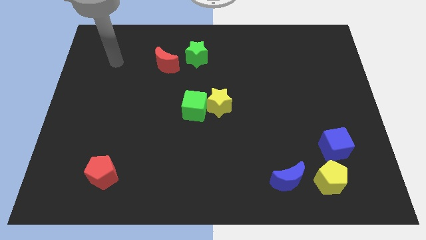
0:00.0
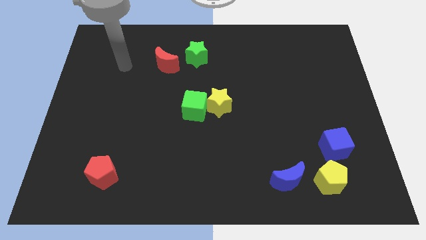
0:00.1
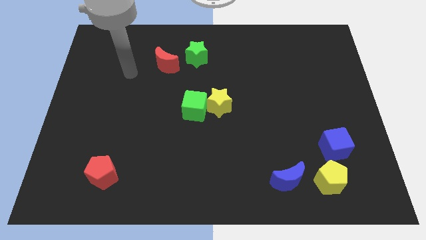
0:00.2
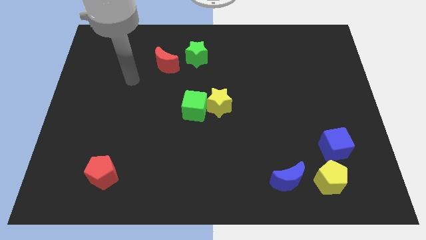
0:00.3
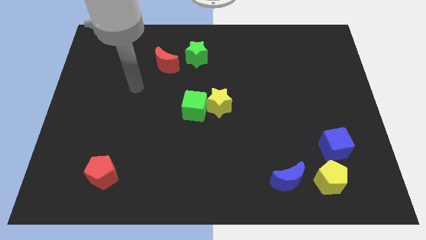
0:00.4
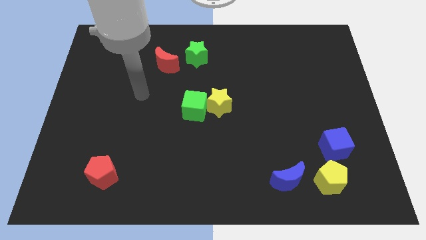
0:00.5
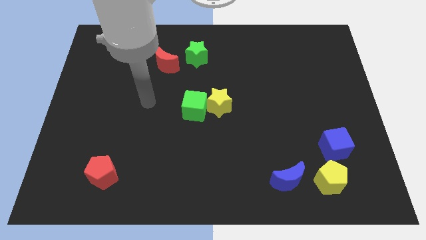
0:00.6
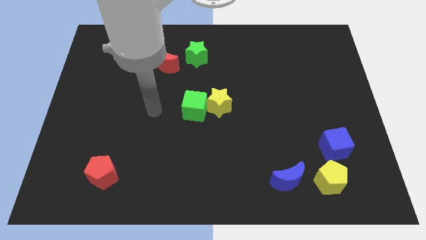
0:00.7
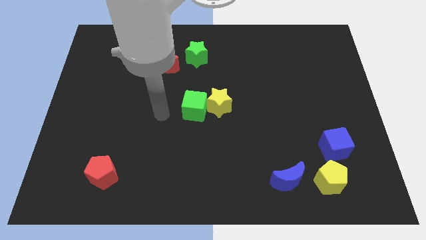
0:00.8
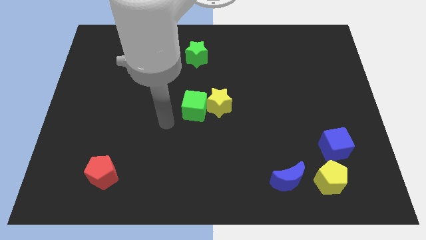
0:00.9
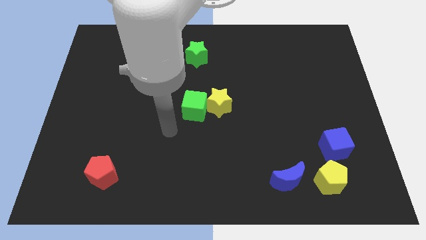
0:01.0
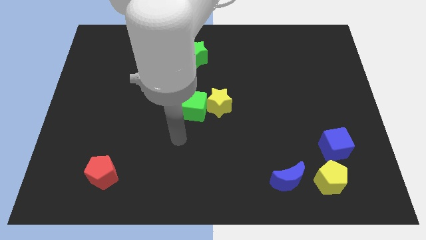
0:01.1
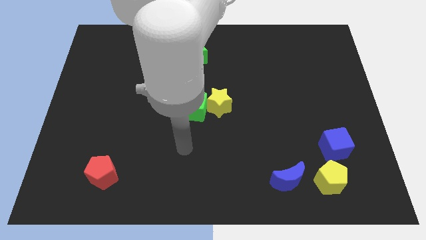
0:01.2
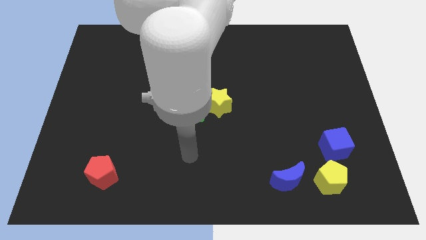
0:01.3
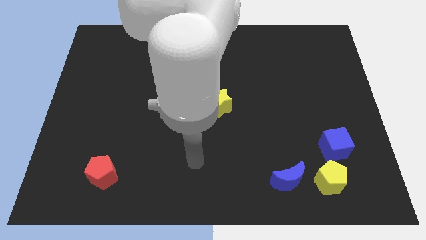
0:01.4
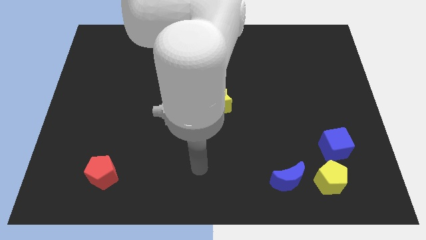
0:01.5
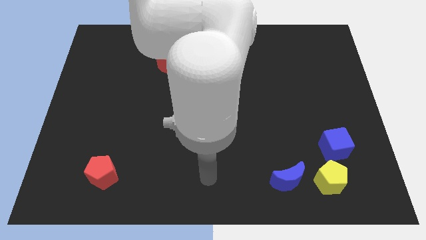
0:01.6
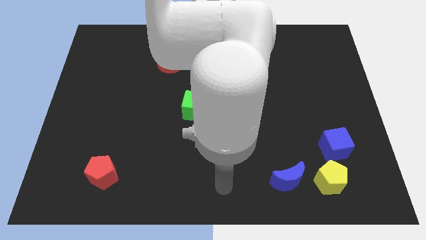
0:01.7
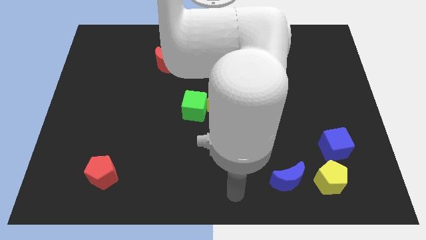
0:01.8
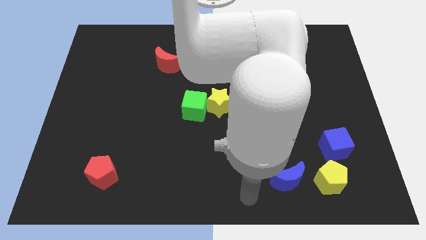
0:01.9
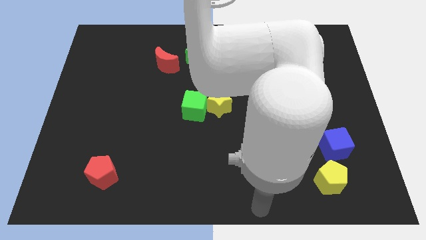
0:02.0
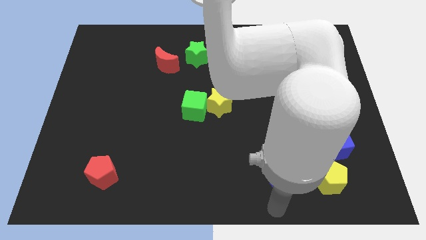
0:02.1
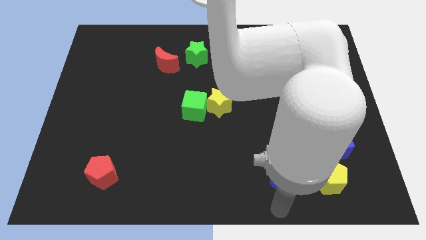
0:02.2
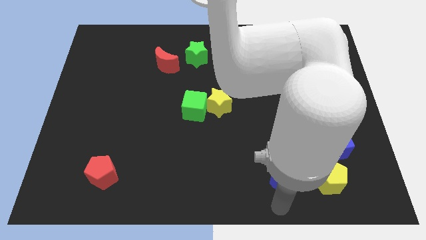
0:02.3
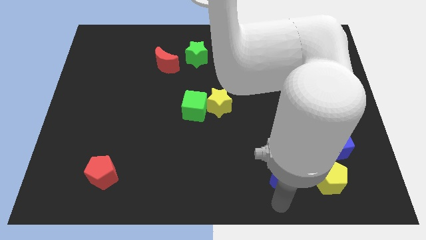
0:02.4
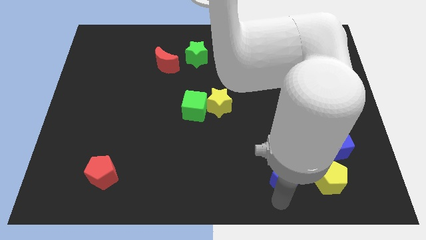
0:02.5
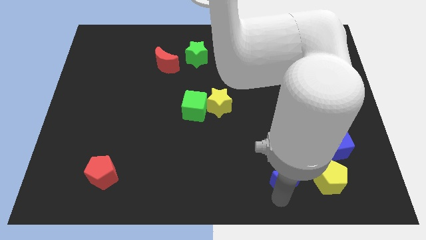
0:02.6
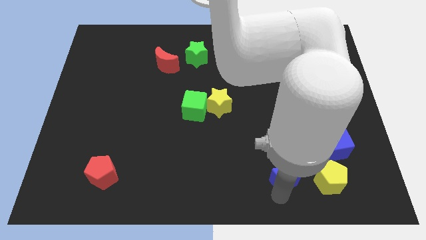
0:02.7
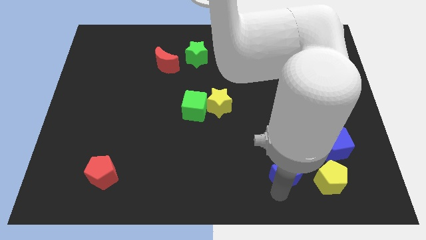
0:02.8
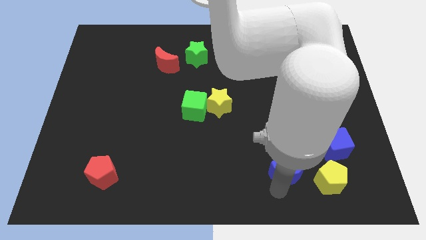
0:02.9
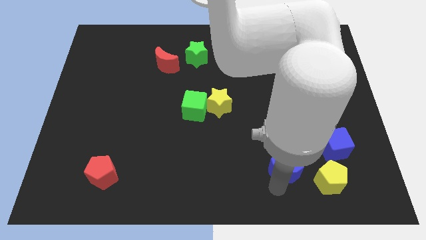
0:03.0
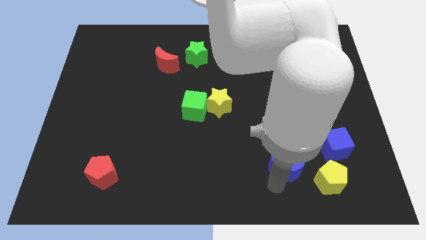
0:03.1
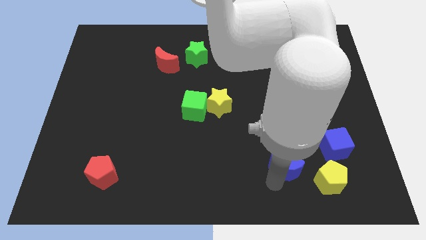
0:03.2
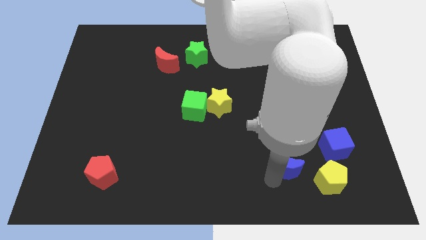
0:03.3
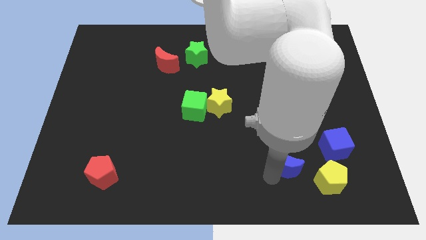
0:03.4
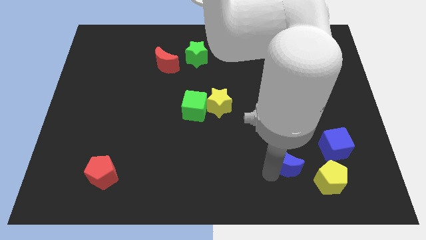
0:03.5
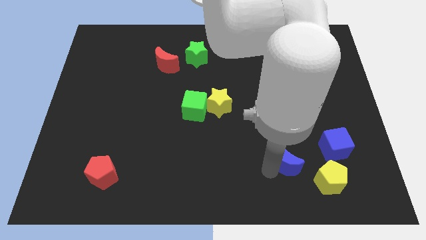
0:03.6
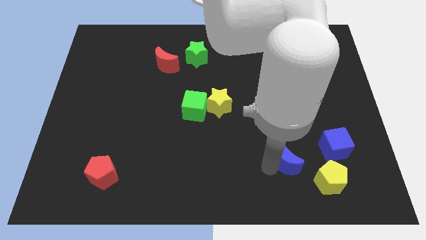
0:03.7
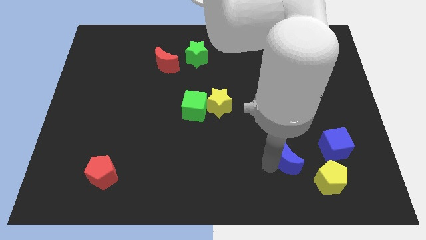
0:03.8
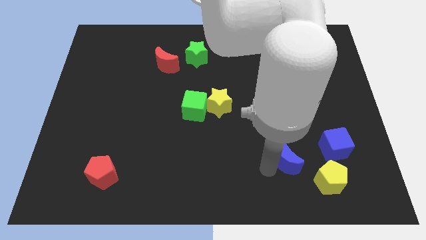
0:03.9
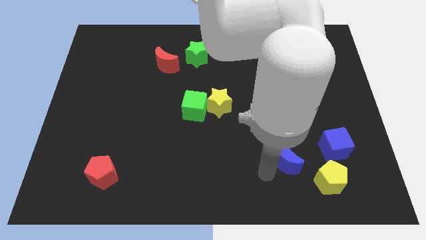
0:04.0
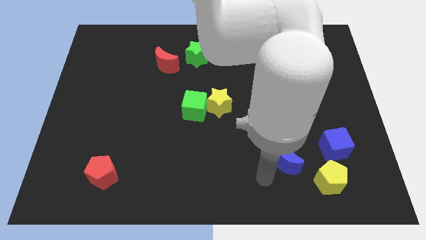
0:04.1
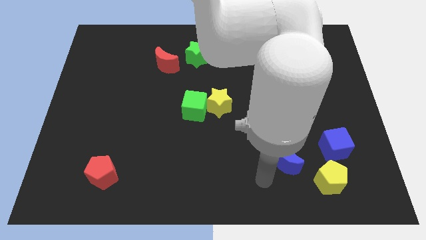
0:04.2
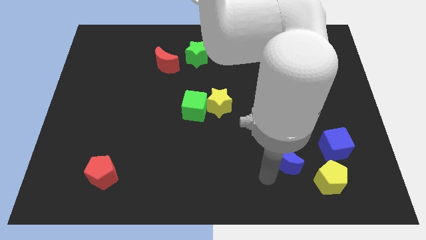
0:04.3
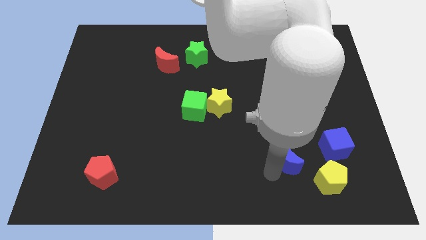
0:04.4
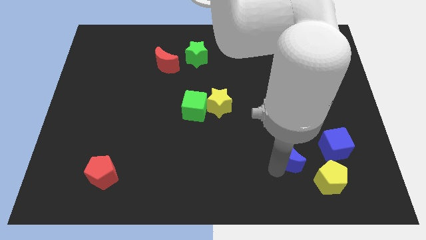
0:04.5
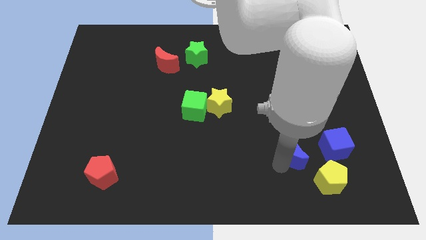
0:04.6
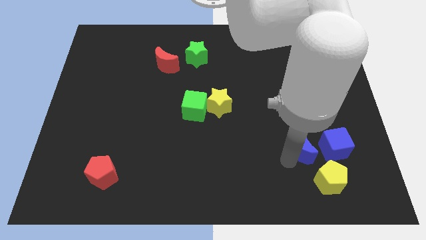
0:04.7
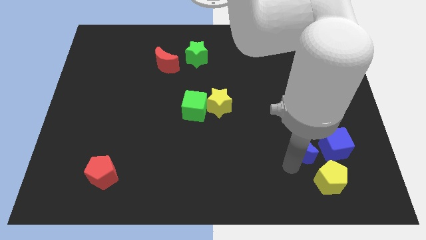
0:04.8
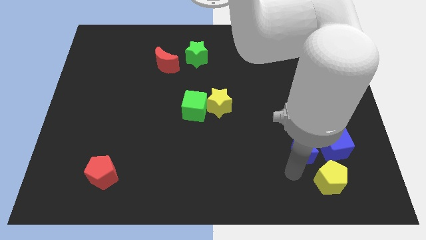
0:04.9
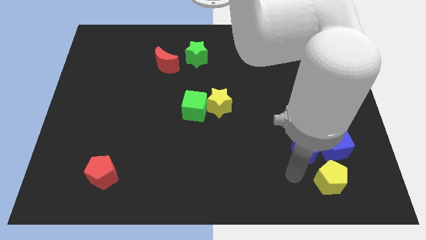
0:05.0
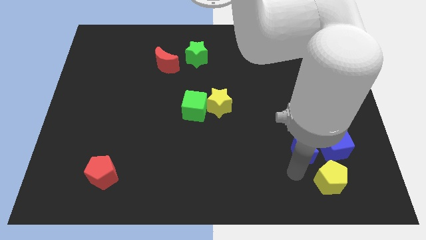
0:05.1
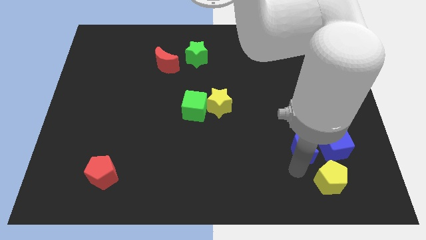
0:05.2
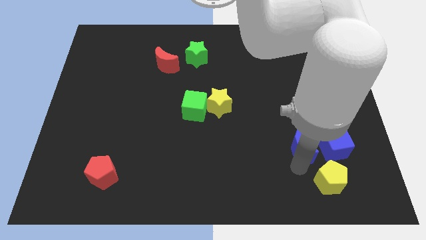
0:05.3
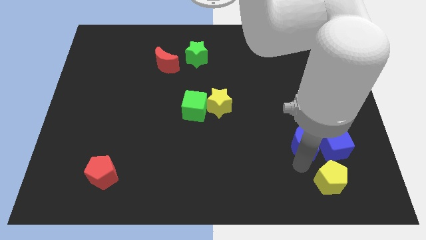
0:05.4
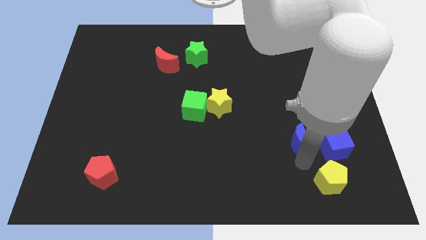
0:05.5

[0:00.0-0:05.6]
put the blue moon to the top left side of the blue cube

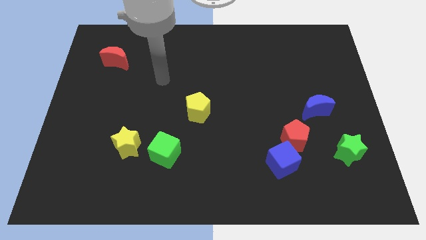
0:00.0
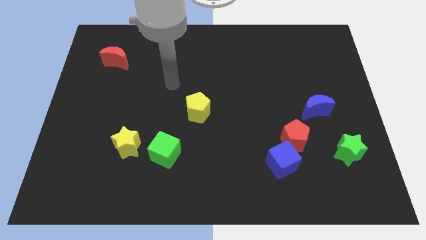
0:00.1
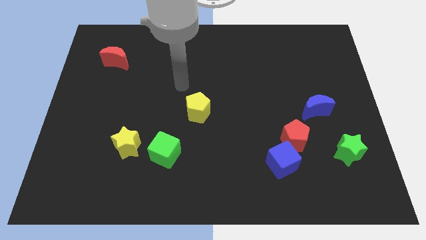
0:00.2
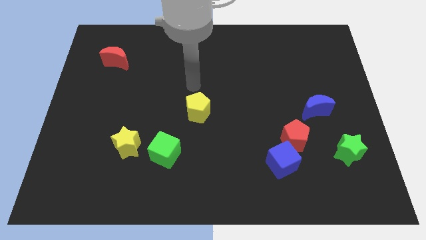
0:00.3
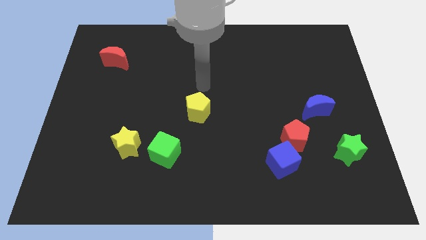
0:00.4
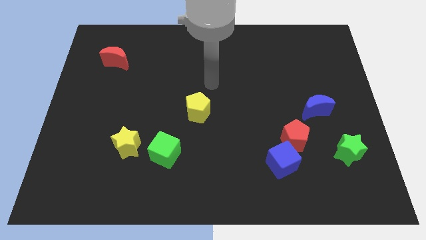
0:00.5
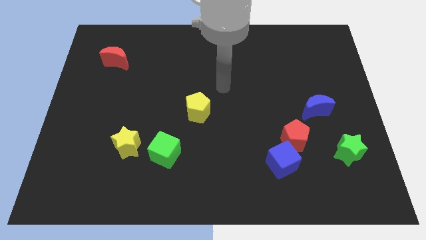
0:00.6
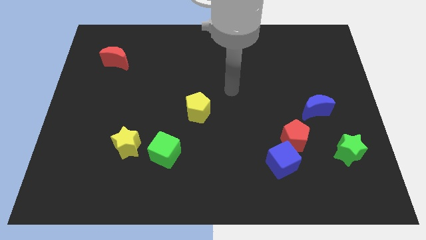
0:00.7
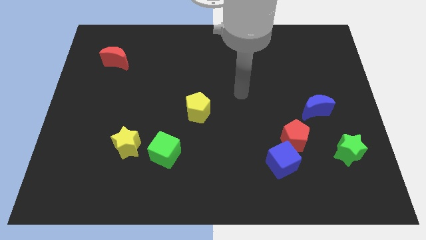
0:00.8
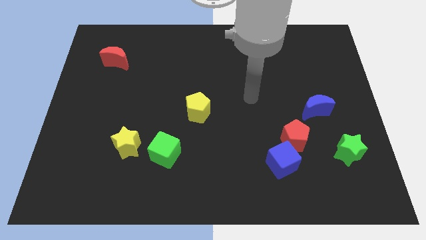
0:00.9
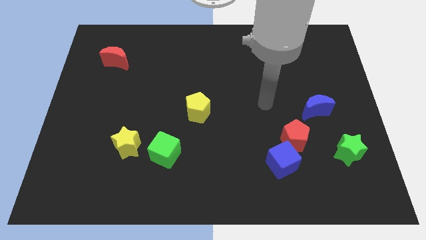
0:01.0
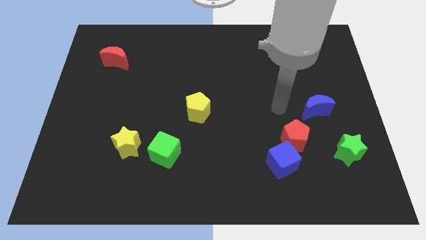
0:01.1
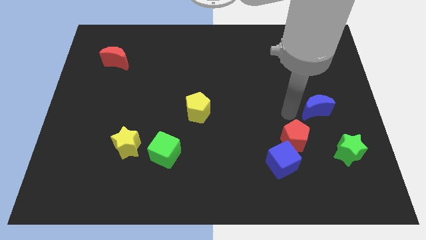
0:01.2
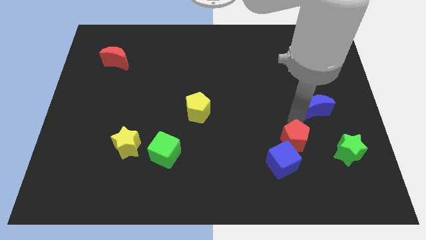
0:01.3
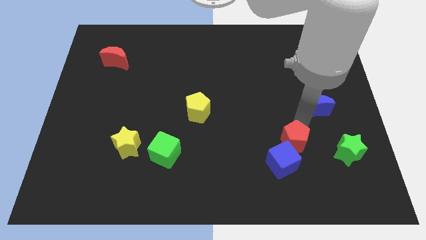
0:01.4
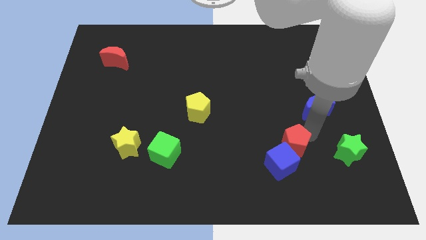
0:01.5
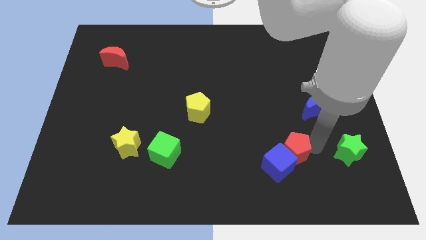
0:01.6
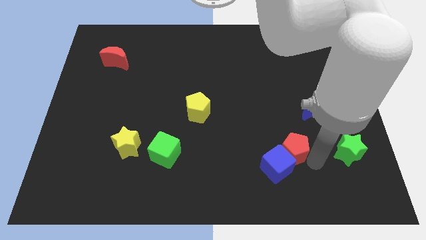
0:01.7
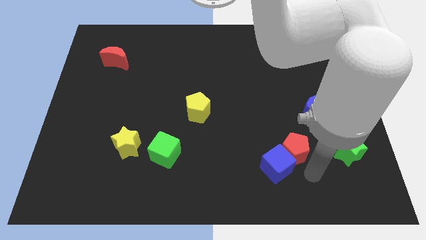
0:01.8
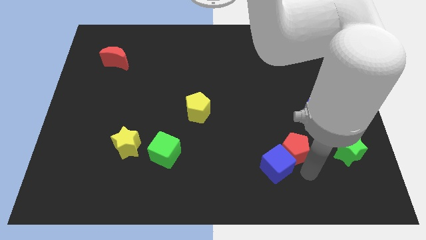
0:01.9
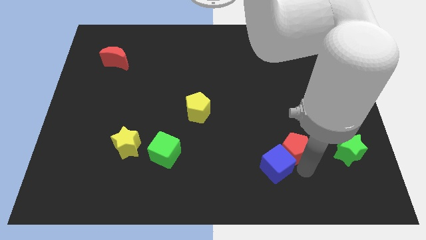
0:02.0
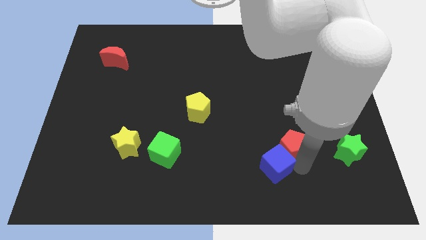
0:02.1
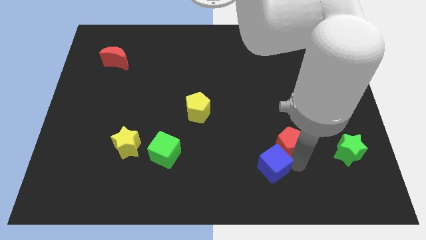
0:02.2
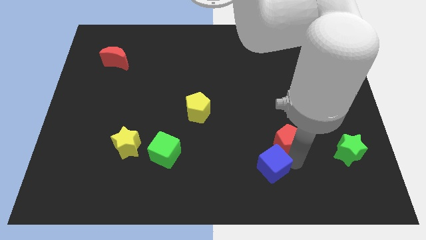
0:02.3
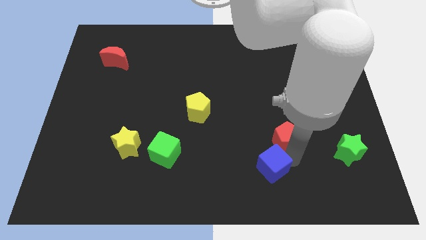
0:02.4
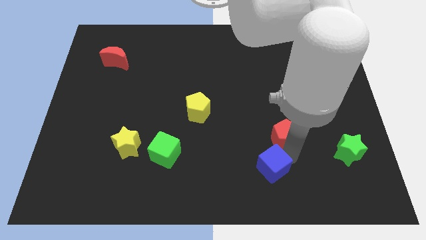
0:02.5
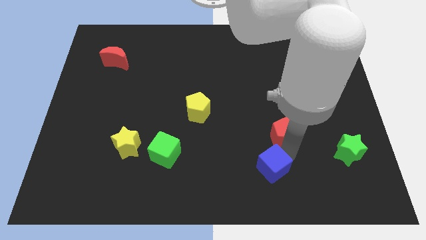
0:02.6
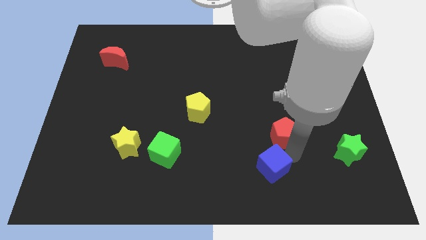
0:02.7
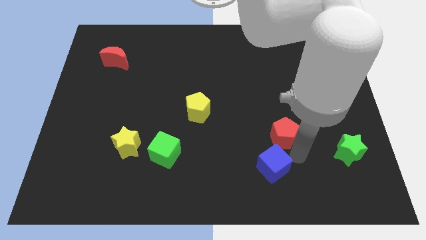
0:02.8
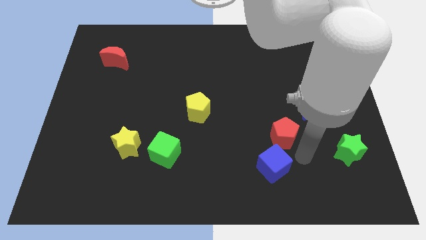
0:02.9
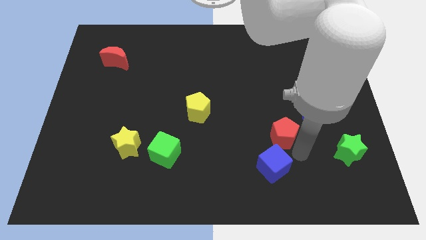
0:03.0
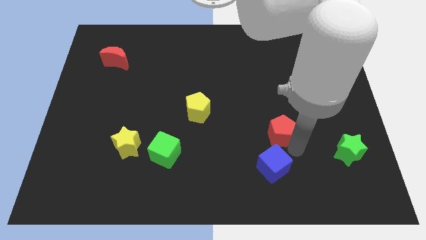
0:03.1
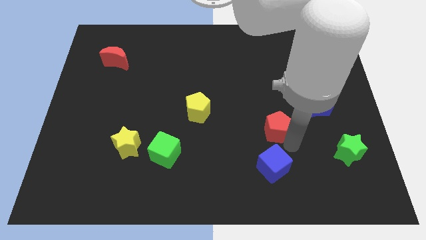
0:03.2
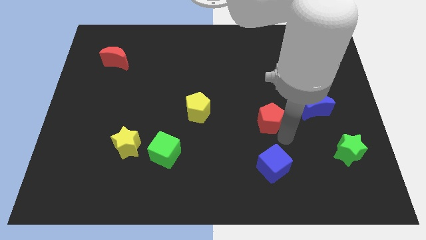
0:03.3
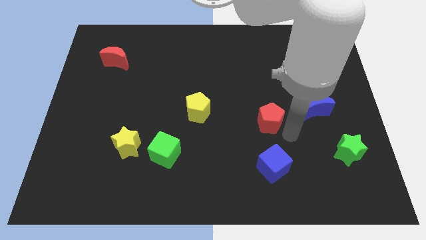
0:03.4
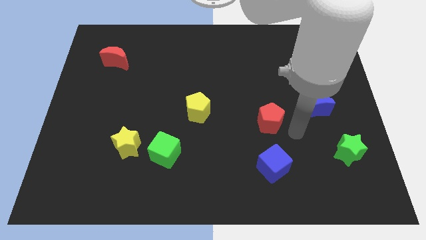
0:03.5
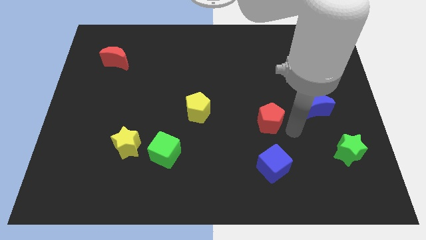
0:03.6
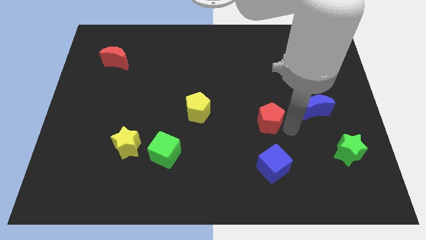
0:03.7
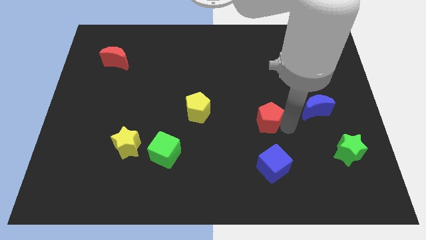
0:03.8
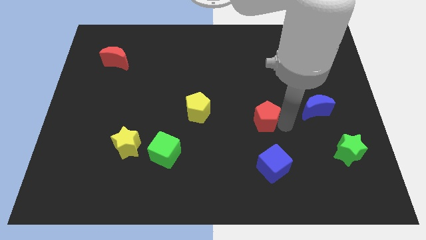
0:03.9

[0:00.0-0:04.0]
push the red pentagon to the right side of the yellow pentagon
